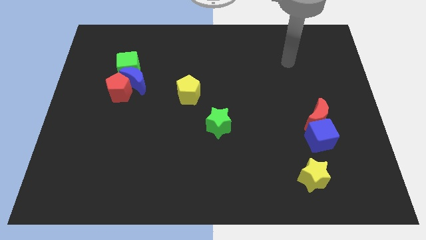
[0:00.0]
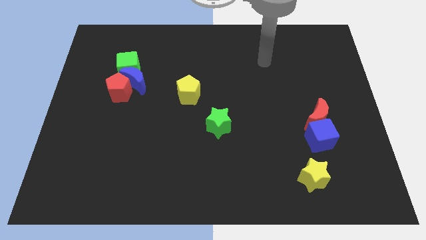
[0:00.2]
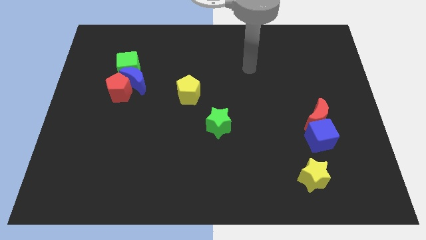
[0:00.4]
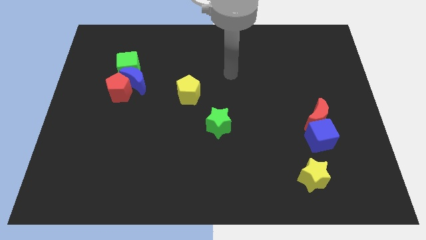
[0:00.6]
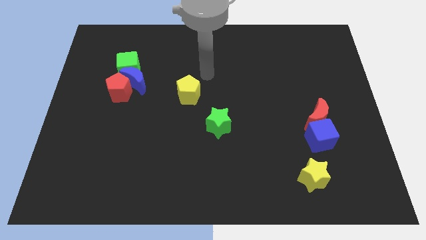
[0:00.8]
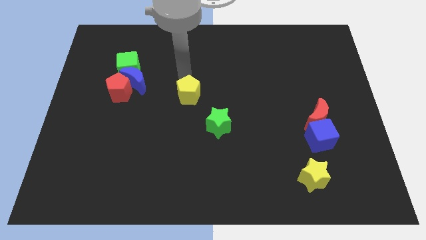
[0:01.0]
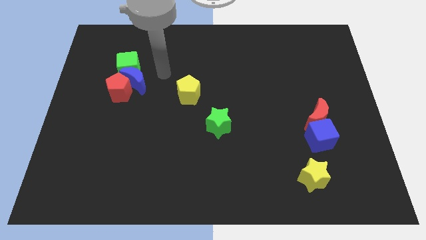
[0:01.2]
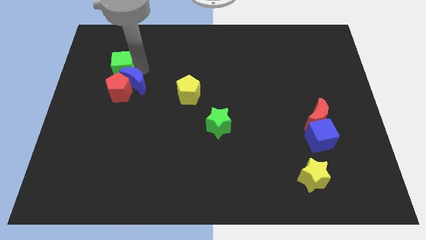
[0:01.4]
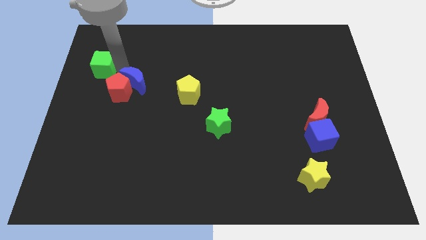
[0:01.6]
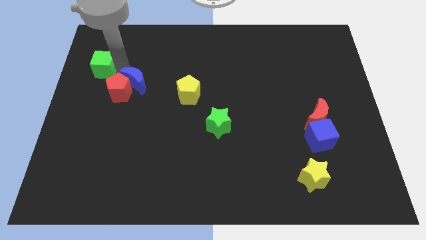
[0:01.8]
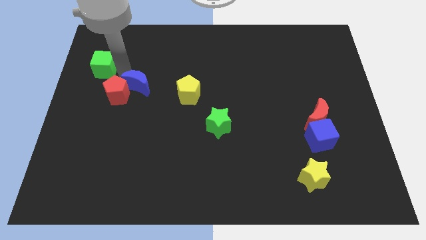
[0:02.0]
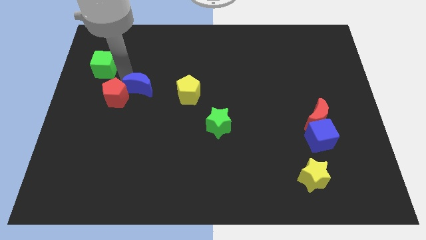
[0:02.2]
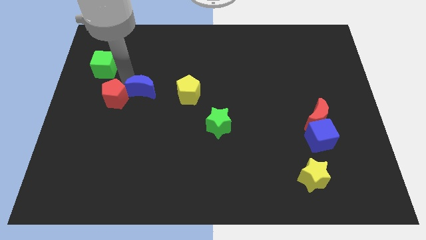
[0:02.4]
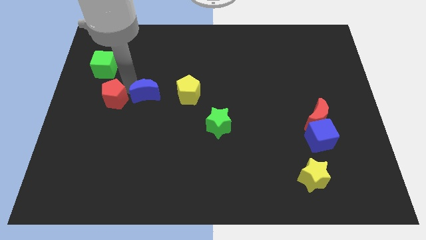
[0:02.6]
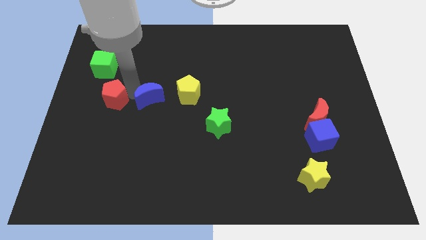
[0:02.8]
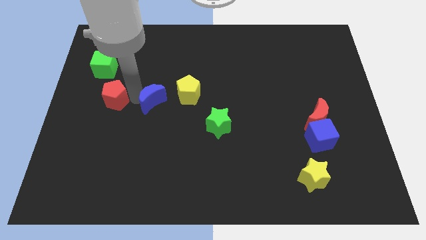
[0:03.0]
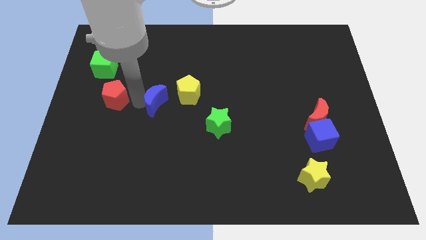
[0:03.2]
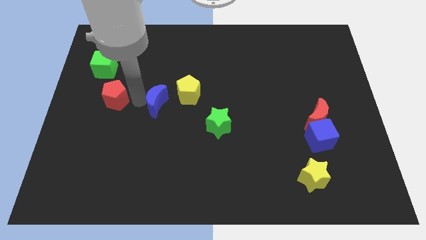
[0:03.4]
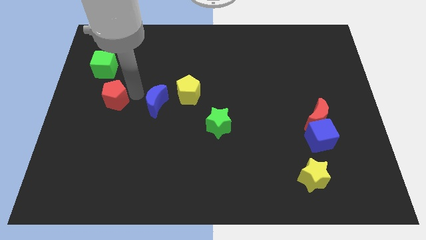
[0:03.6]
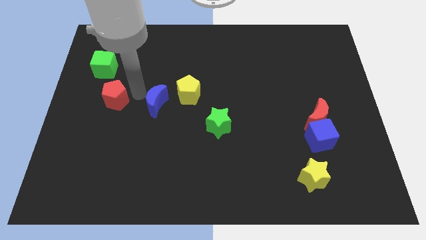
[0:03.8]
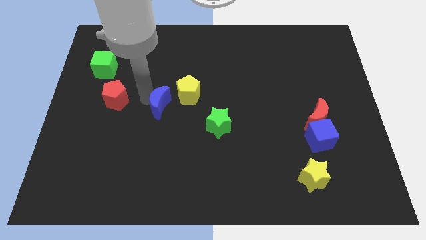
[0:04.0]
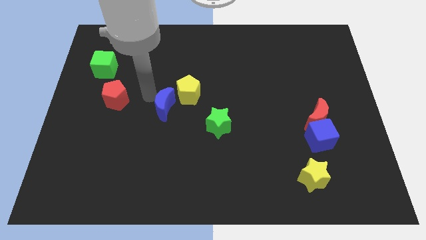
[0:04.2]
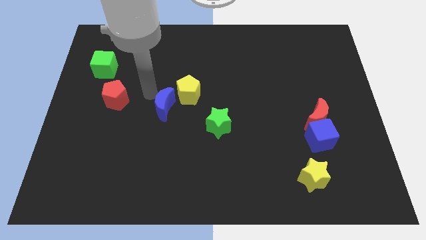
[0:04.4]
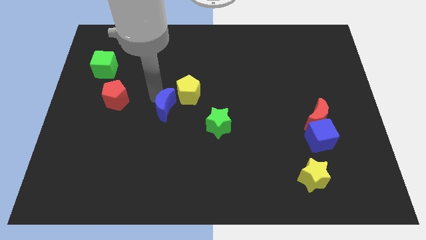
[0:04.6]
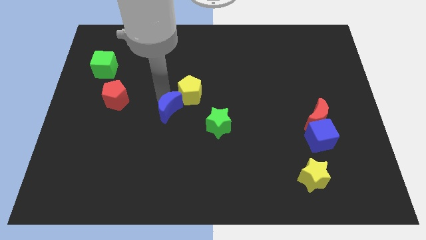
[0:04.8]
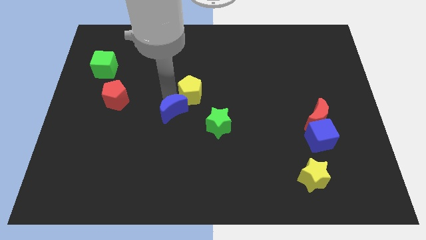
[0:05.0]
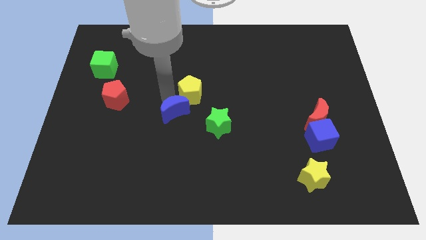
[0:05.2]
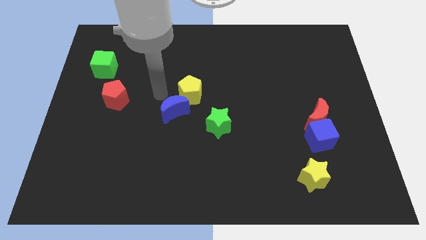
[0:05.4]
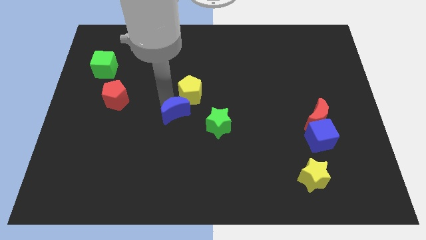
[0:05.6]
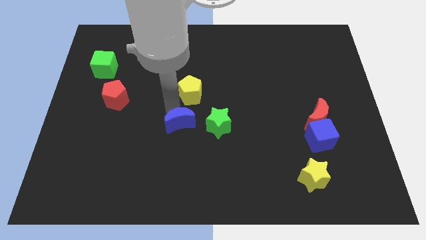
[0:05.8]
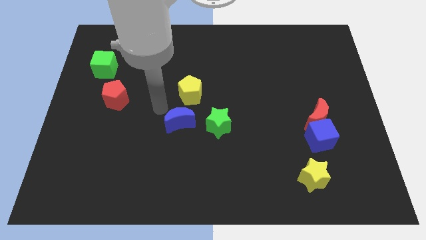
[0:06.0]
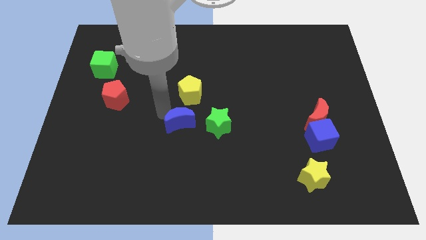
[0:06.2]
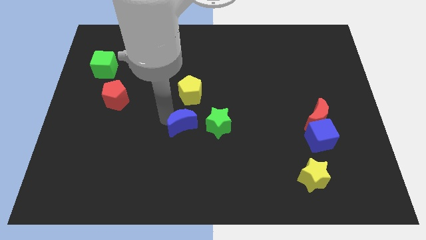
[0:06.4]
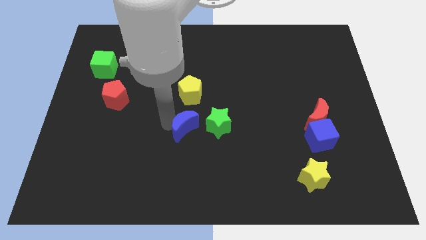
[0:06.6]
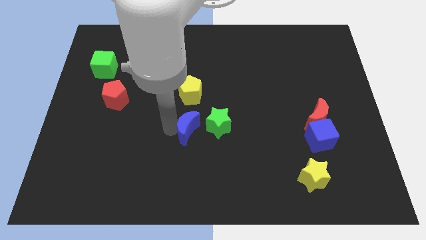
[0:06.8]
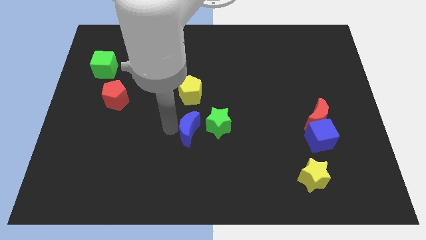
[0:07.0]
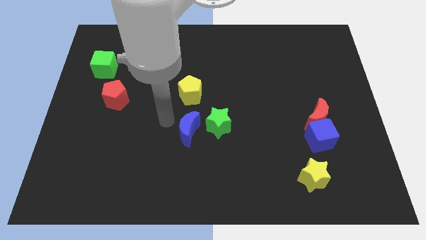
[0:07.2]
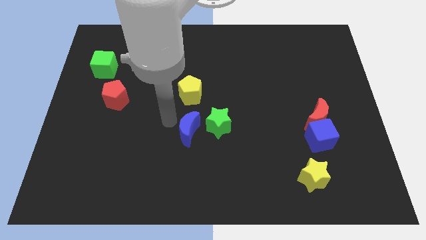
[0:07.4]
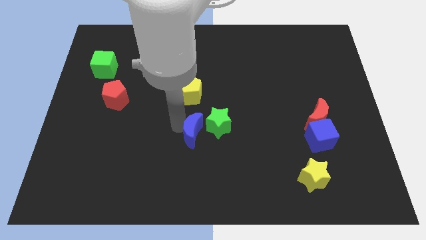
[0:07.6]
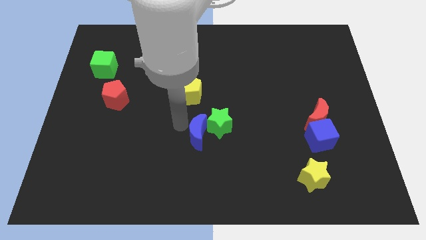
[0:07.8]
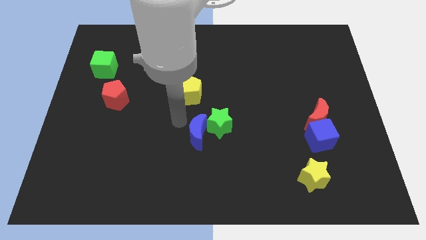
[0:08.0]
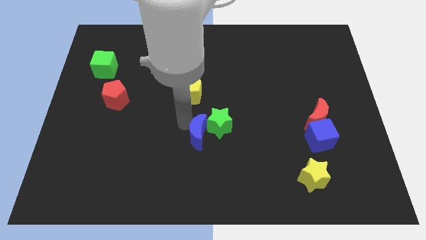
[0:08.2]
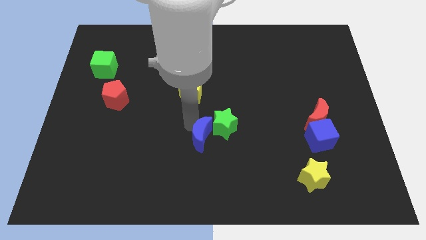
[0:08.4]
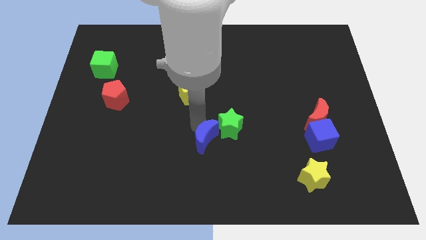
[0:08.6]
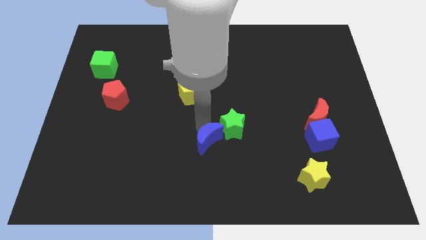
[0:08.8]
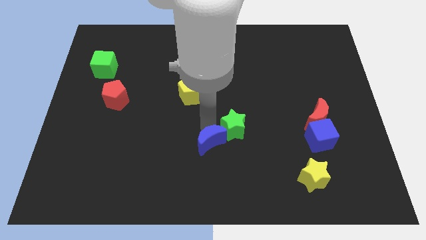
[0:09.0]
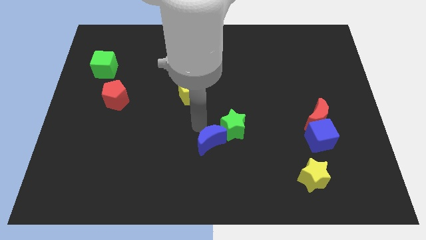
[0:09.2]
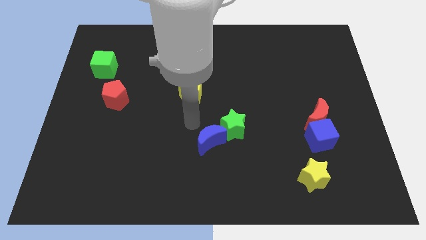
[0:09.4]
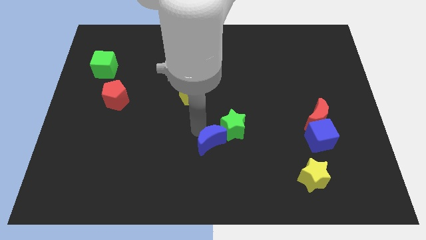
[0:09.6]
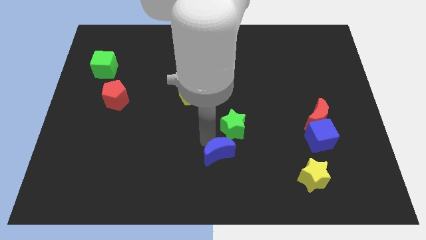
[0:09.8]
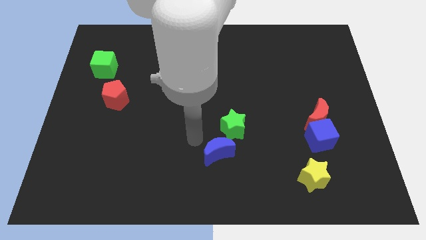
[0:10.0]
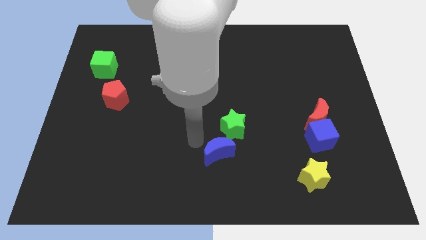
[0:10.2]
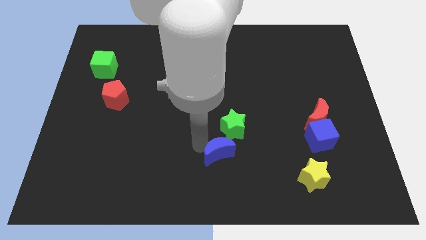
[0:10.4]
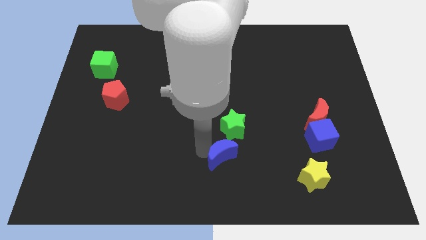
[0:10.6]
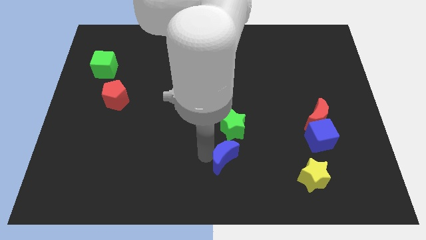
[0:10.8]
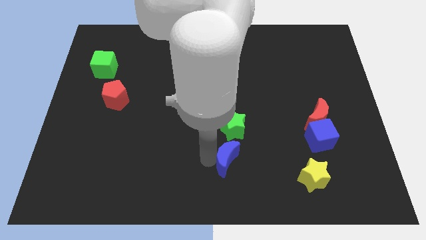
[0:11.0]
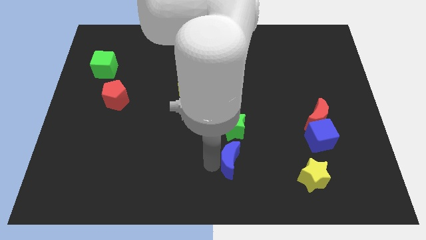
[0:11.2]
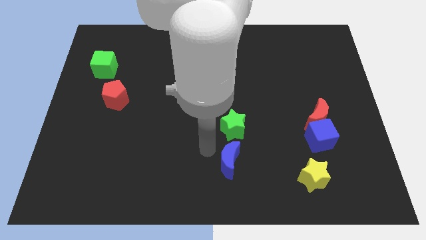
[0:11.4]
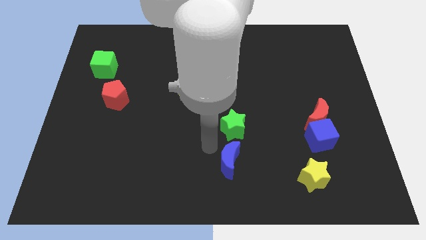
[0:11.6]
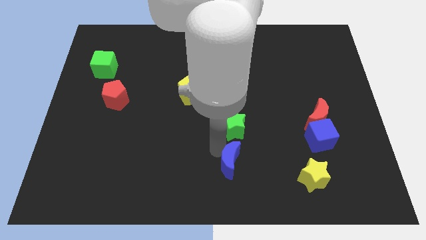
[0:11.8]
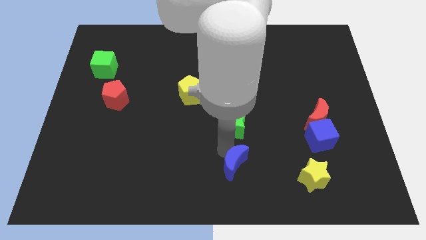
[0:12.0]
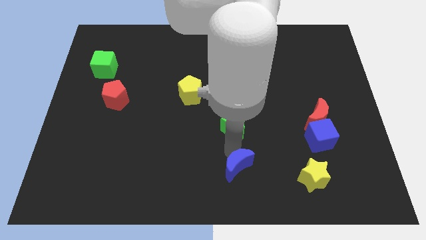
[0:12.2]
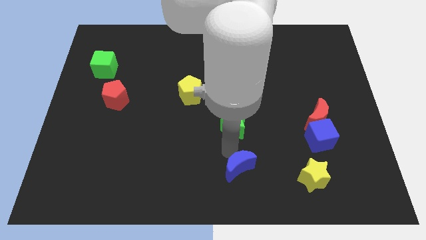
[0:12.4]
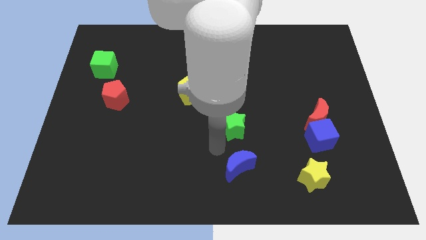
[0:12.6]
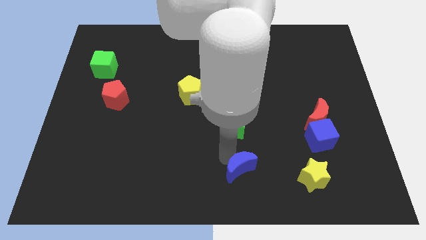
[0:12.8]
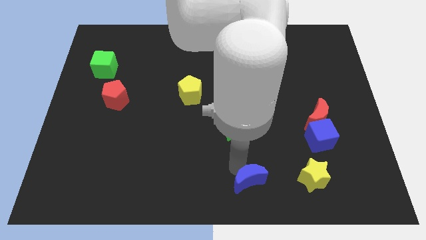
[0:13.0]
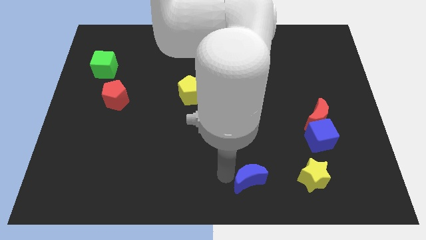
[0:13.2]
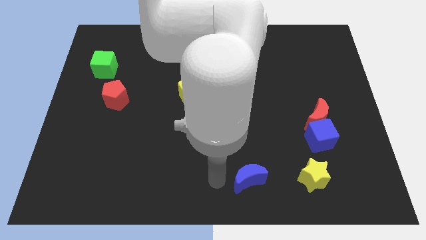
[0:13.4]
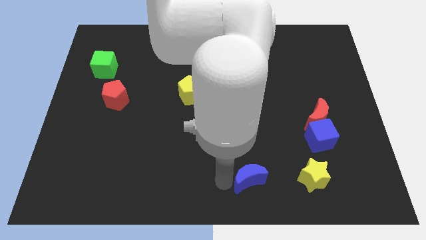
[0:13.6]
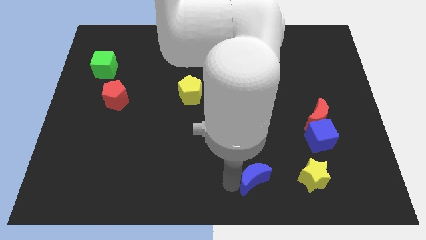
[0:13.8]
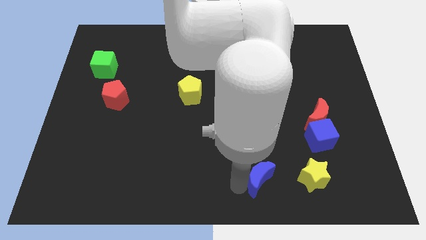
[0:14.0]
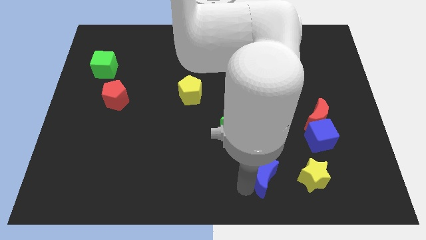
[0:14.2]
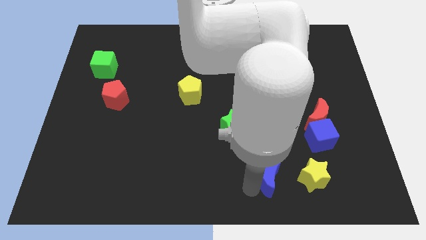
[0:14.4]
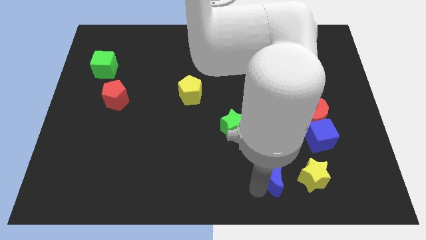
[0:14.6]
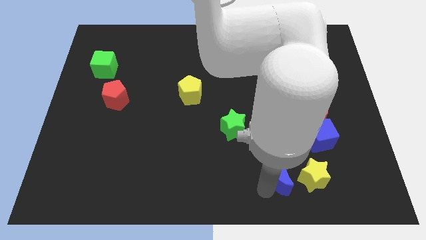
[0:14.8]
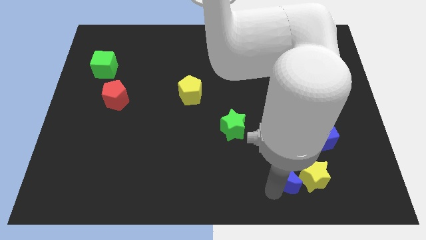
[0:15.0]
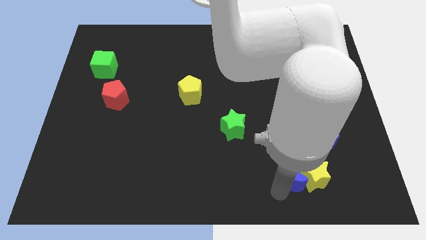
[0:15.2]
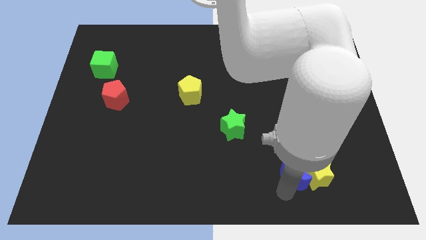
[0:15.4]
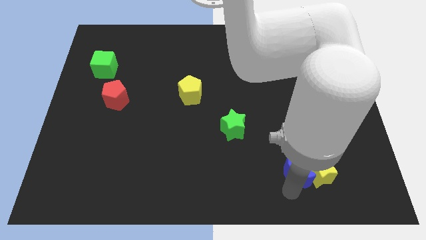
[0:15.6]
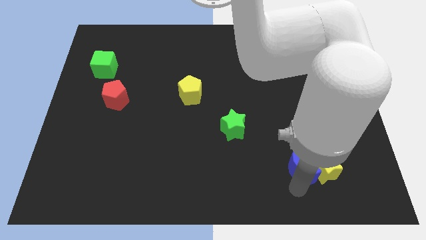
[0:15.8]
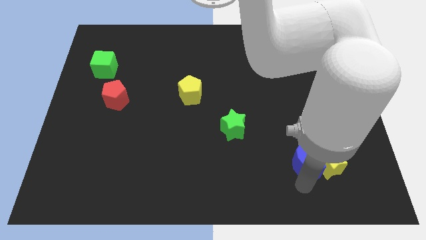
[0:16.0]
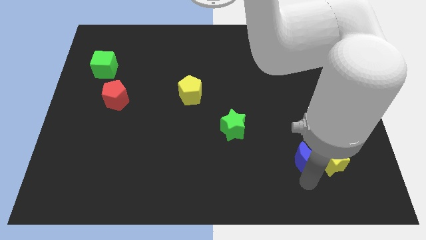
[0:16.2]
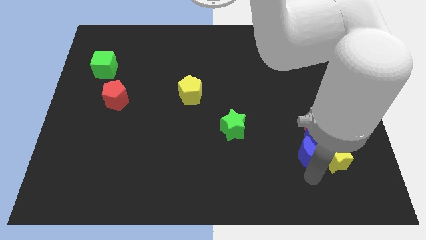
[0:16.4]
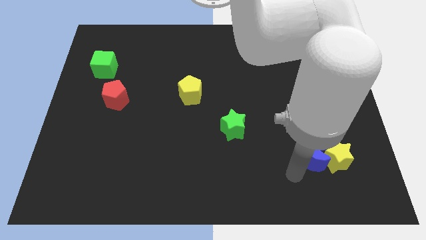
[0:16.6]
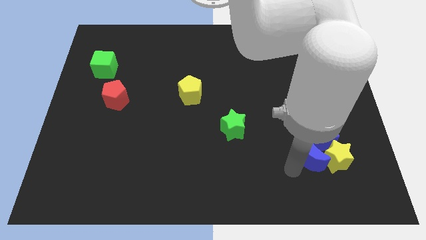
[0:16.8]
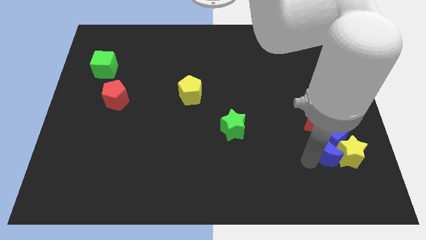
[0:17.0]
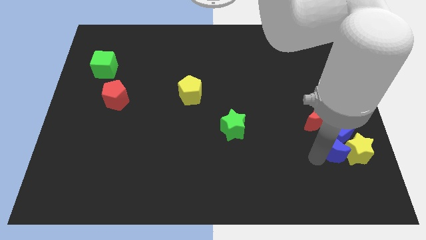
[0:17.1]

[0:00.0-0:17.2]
put the blue moon to the bottom right side of the red moon
